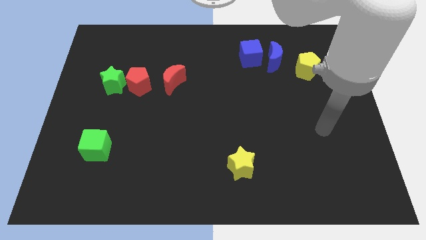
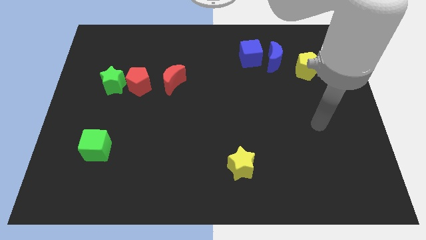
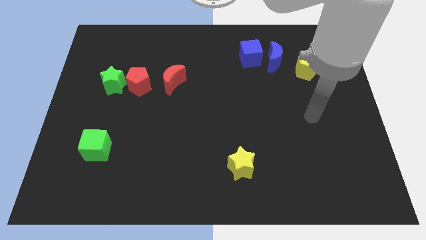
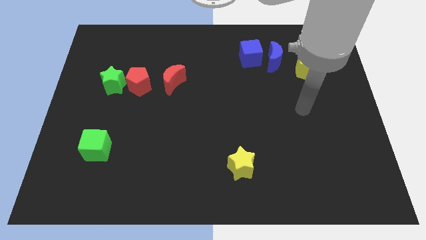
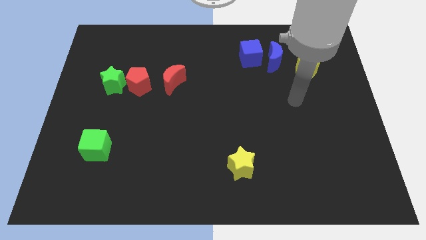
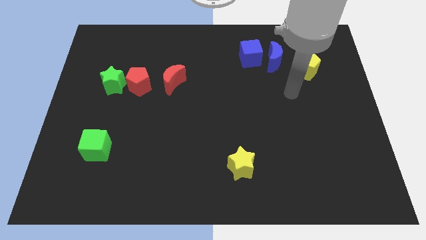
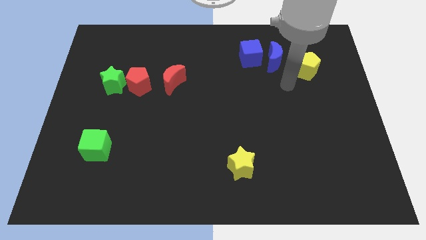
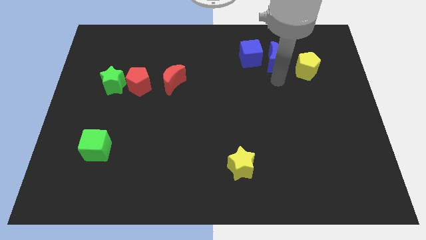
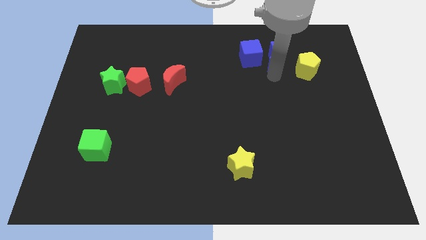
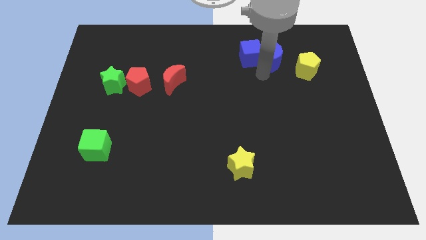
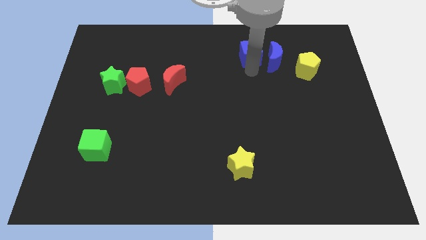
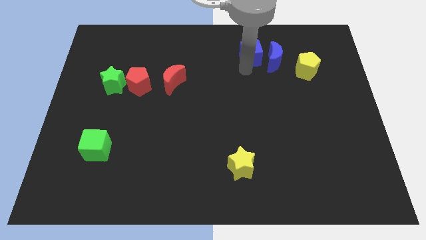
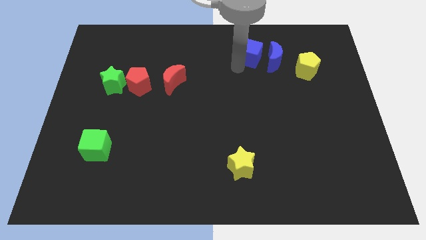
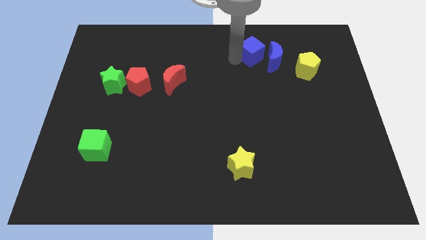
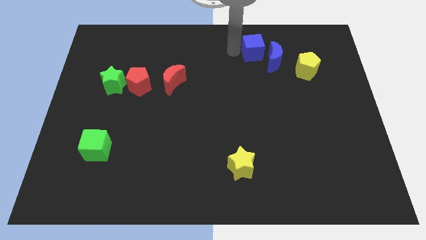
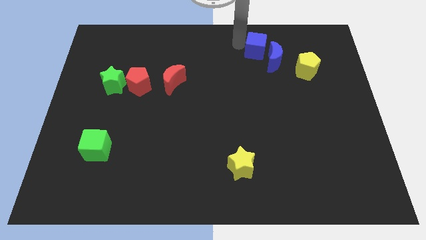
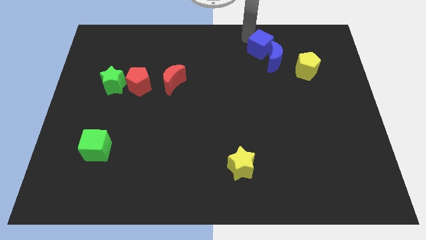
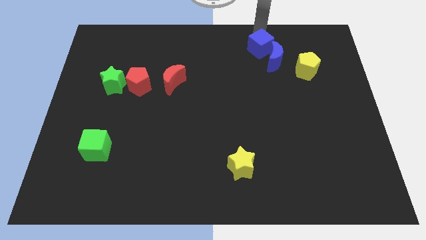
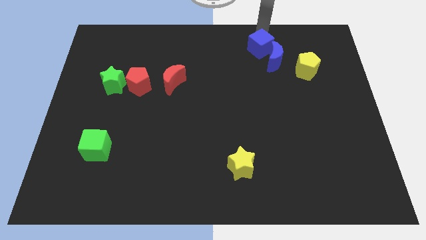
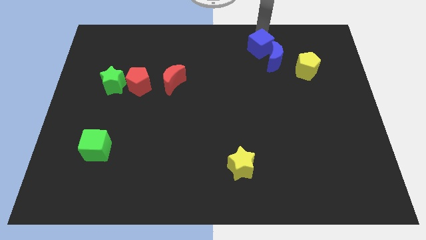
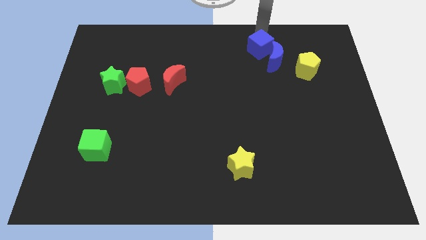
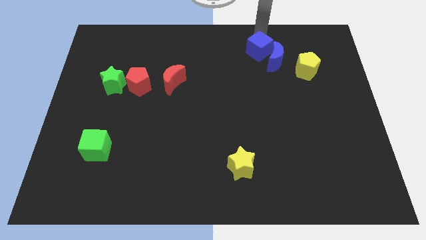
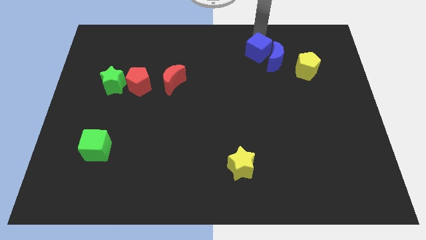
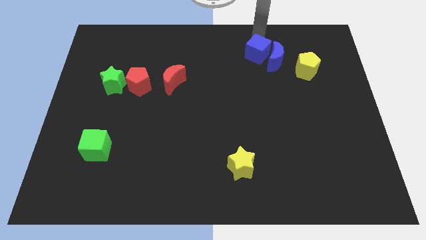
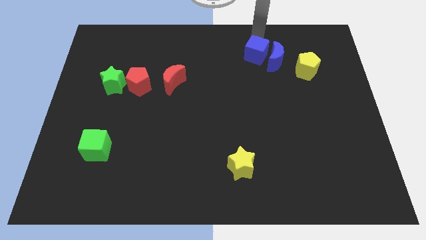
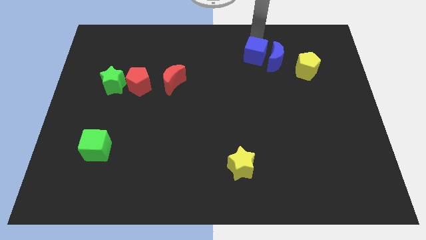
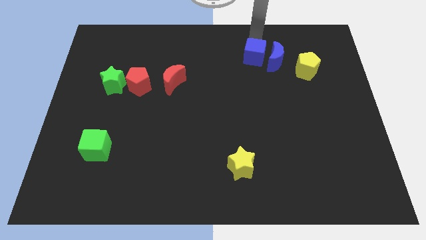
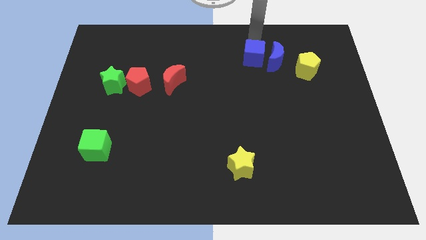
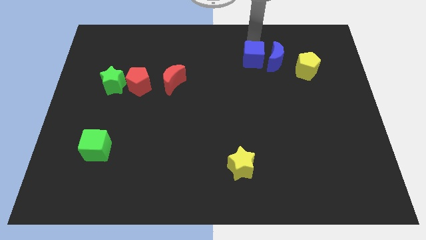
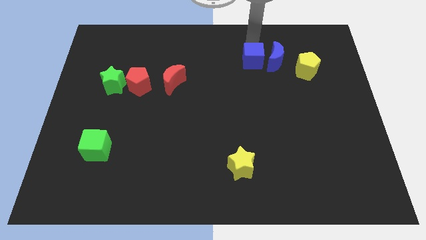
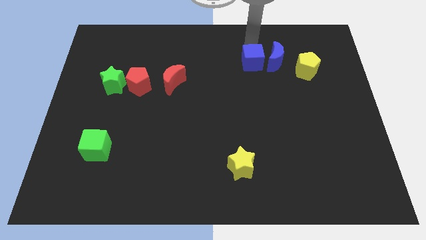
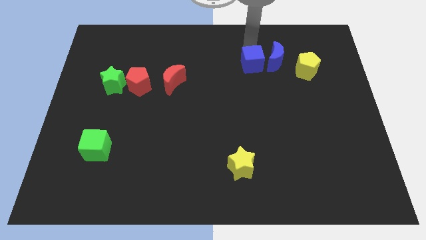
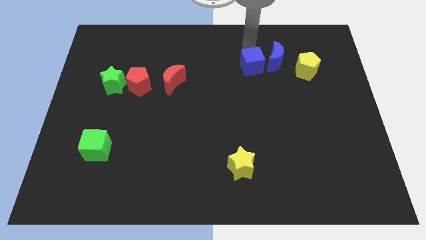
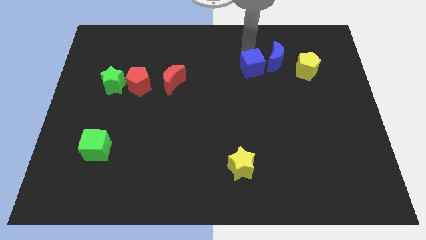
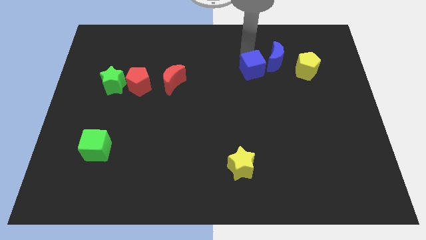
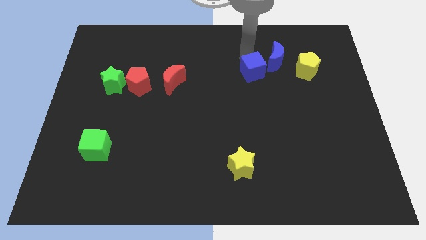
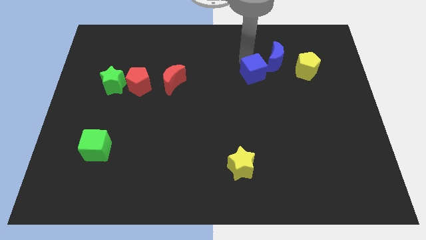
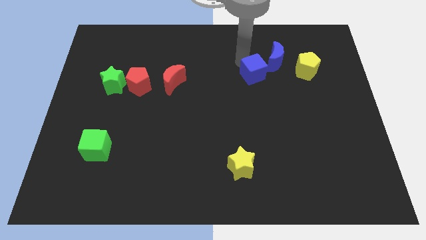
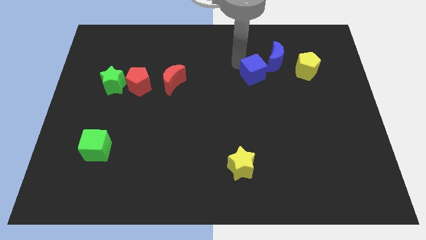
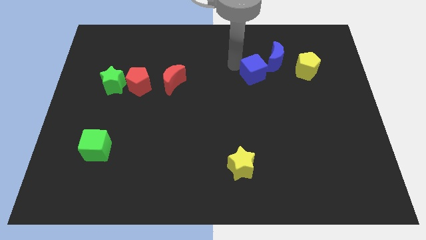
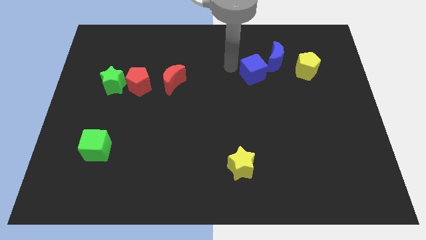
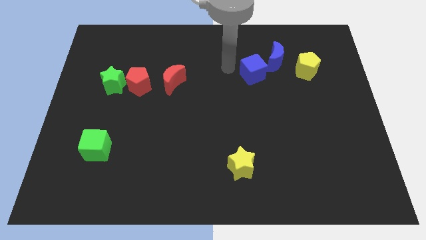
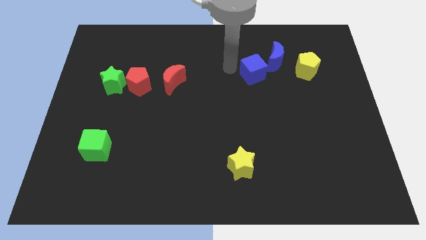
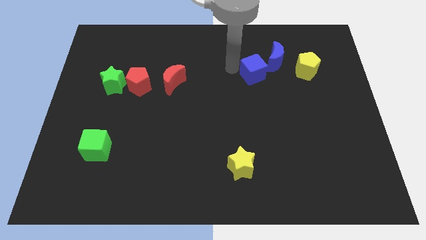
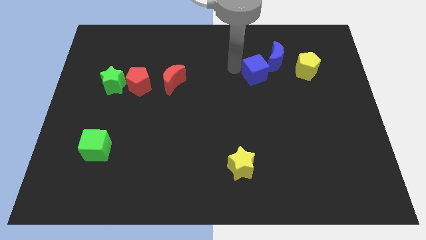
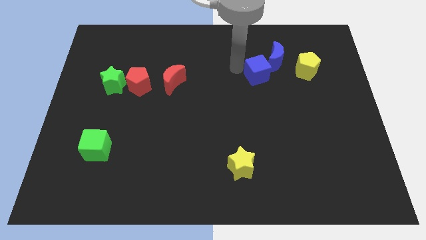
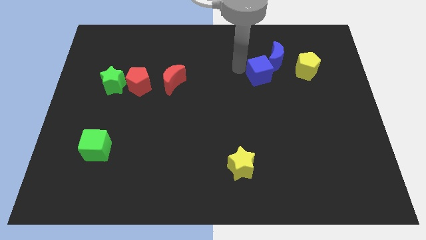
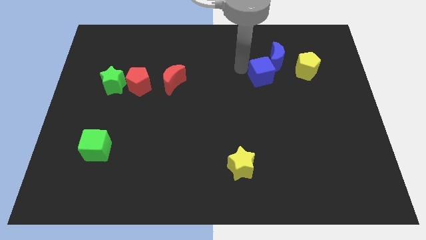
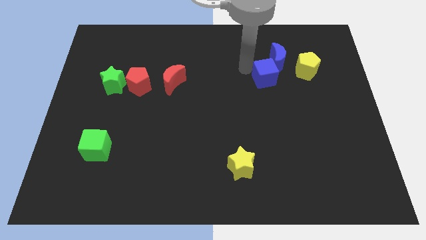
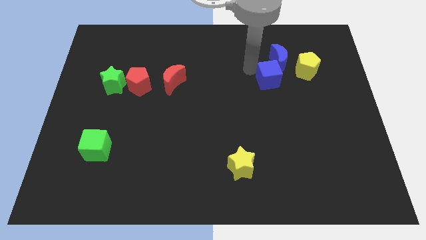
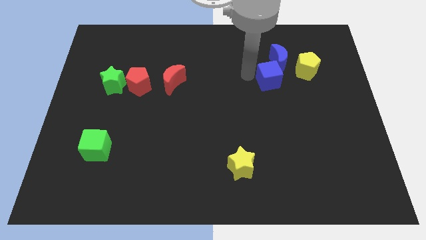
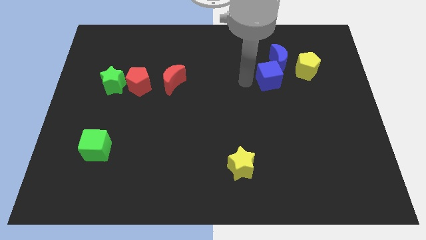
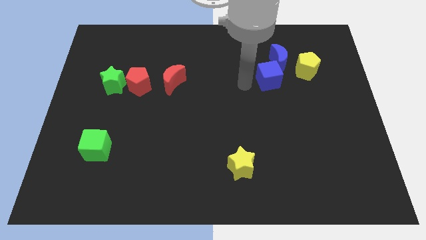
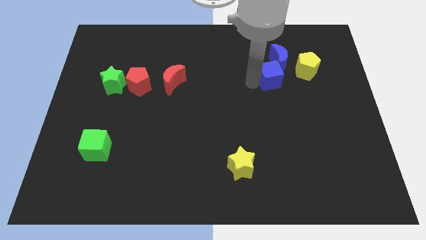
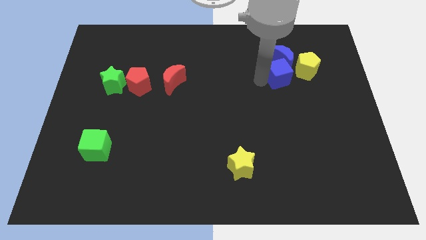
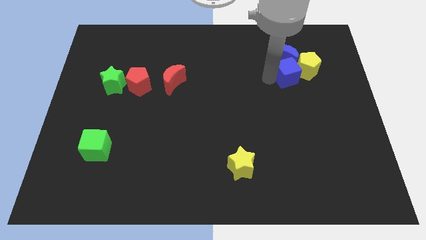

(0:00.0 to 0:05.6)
slide the blue cube close to the yellow pentagon

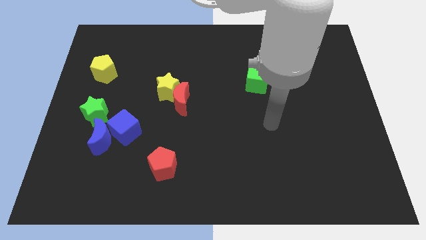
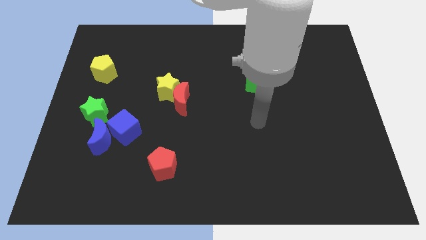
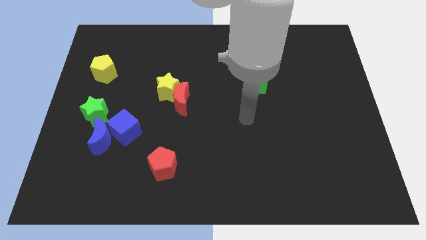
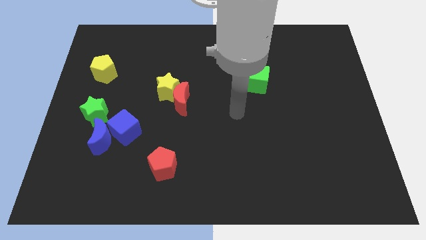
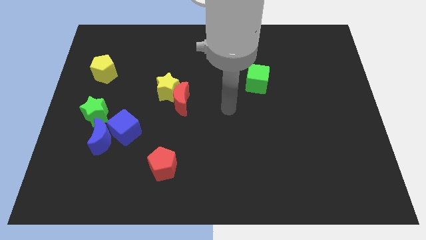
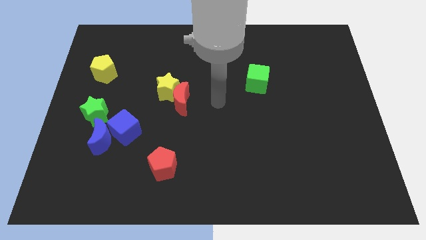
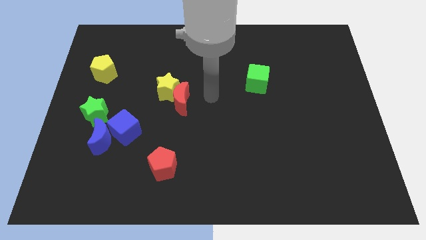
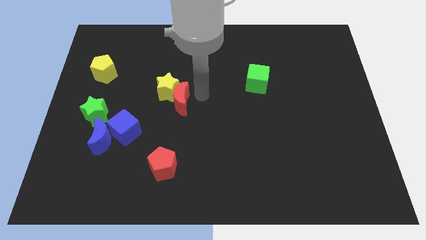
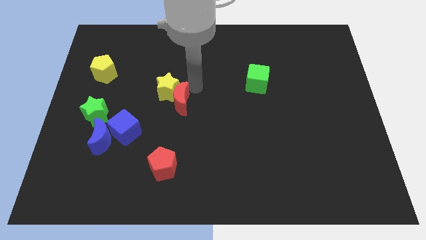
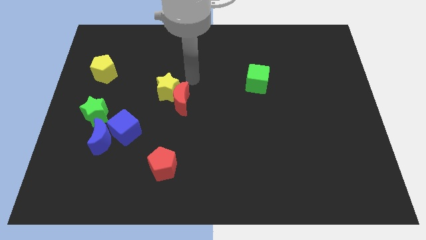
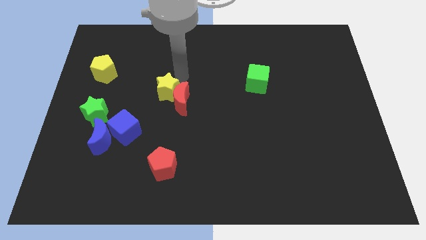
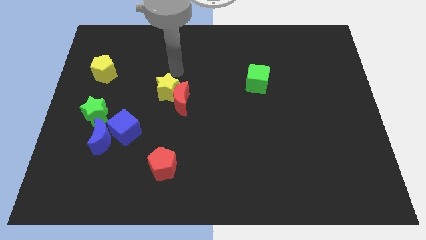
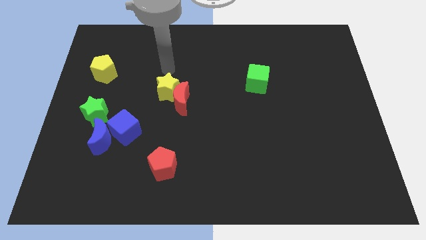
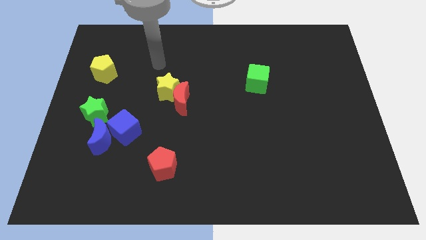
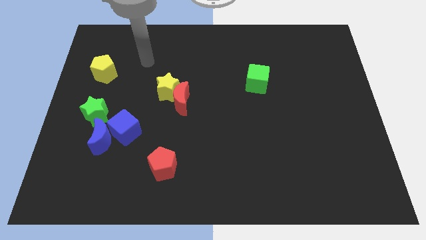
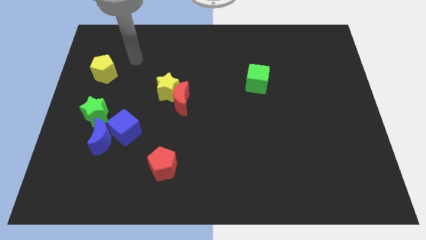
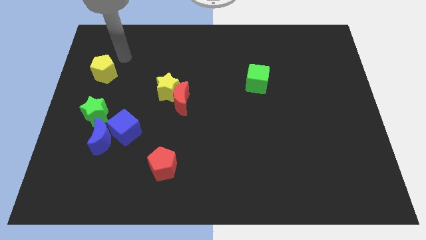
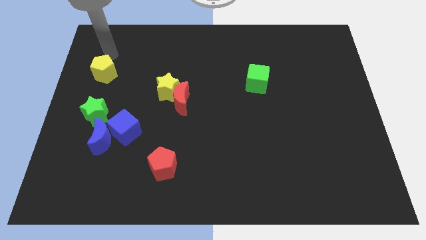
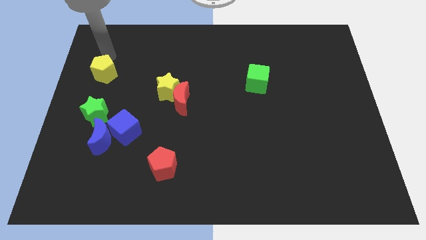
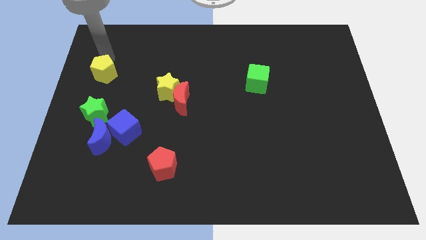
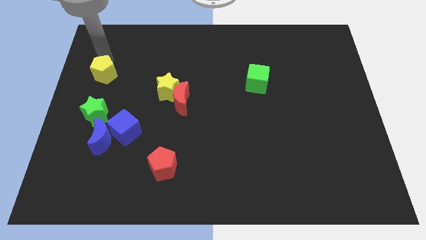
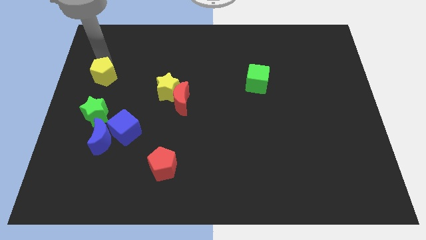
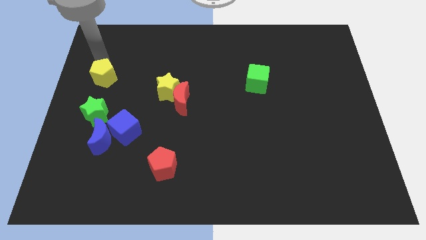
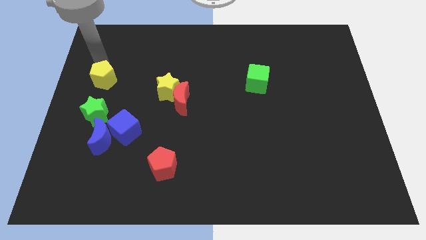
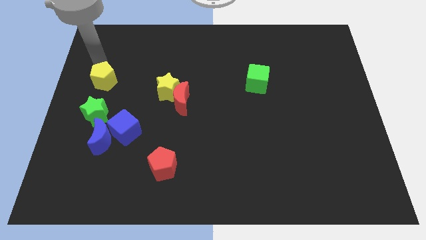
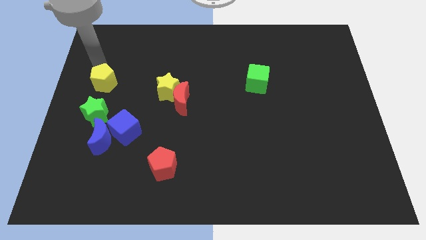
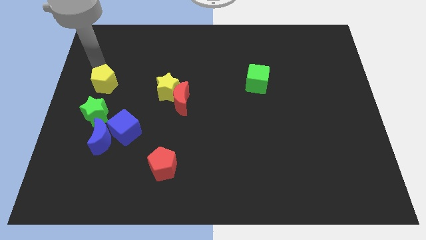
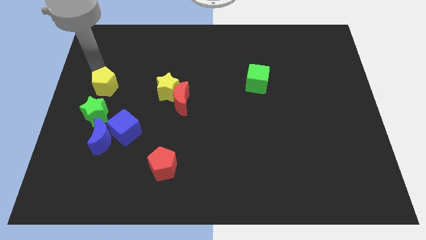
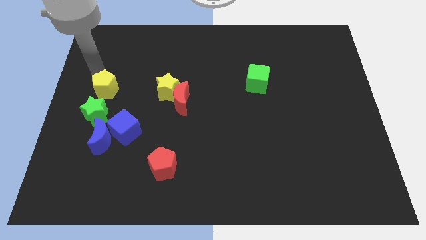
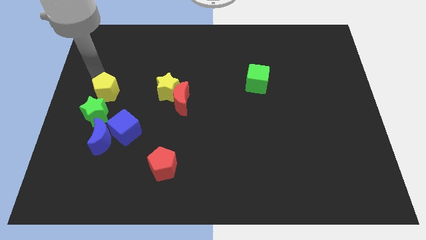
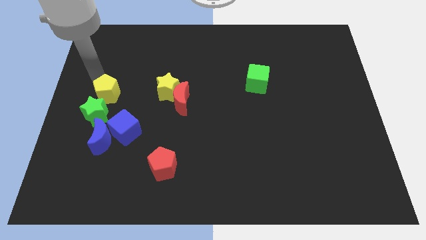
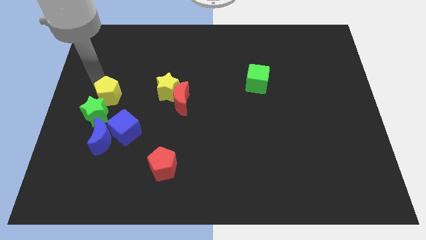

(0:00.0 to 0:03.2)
push the yellow pentagon towards the green star
